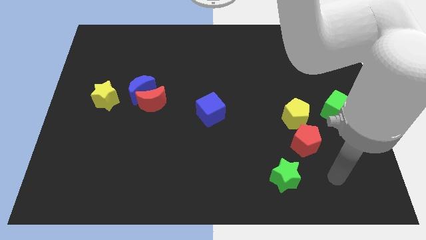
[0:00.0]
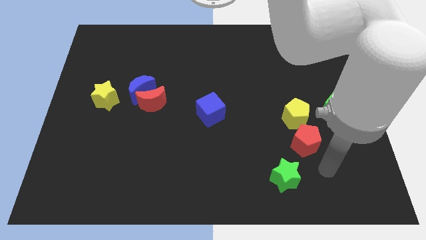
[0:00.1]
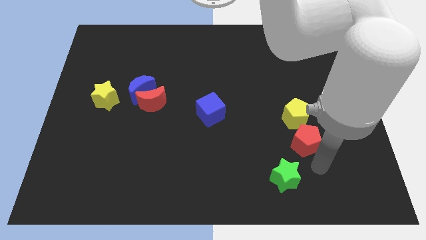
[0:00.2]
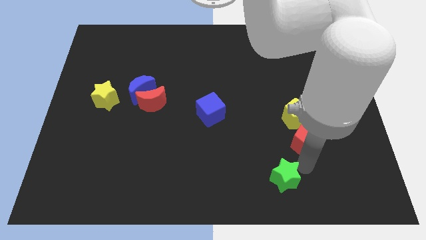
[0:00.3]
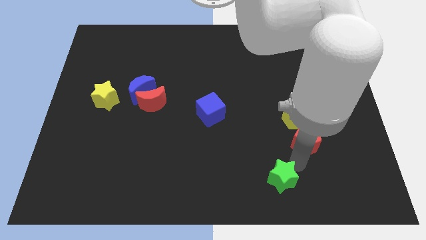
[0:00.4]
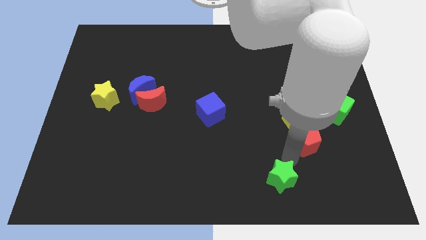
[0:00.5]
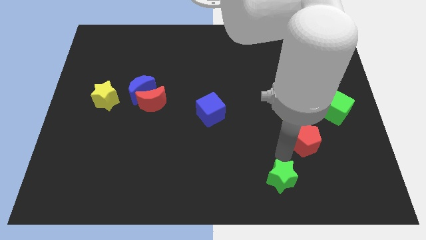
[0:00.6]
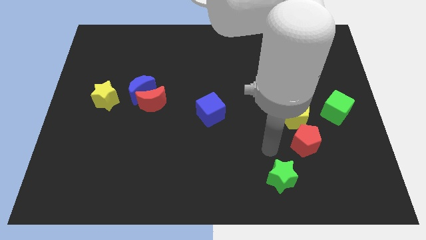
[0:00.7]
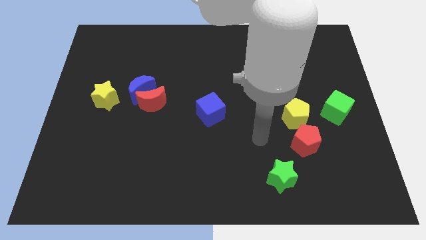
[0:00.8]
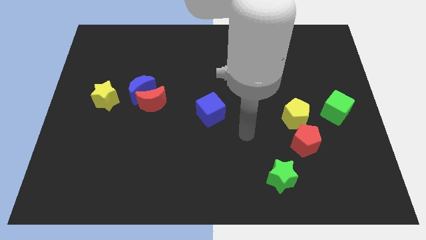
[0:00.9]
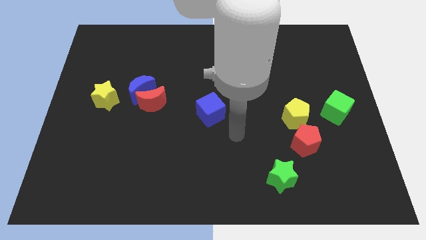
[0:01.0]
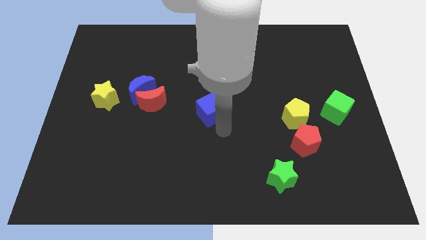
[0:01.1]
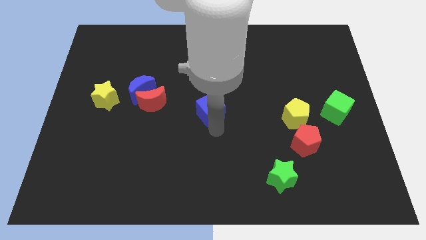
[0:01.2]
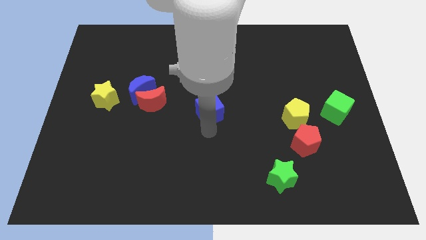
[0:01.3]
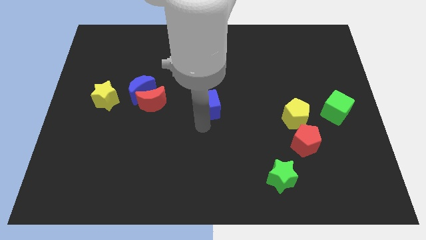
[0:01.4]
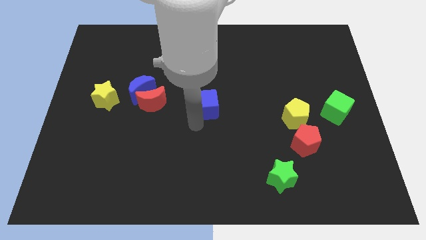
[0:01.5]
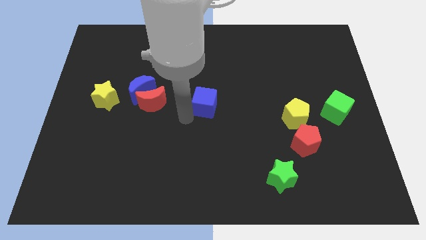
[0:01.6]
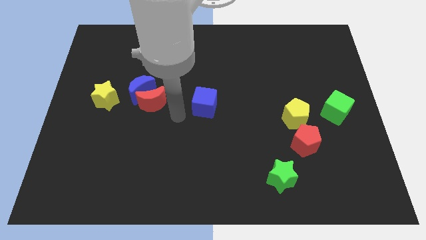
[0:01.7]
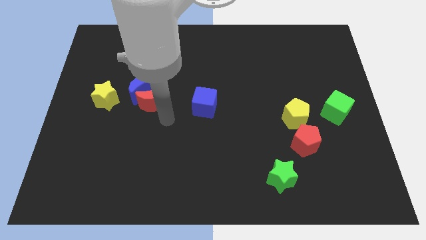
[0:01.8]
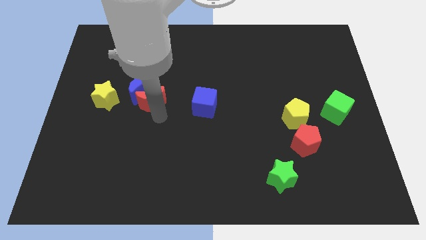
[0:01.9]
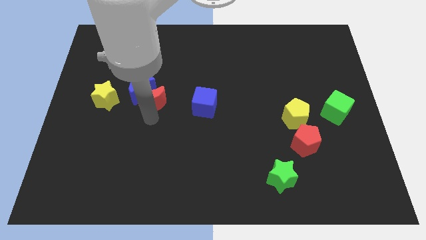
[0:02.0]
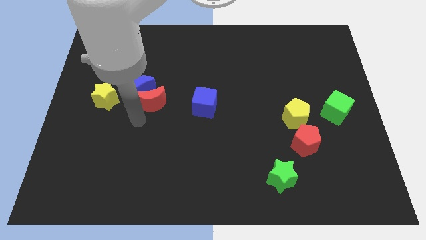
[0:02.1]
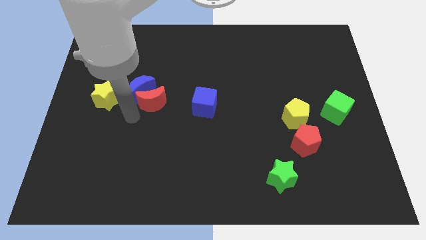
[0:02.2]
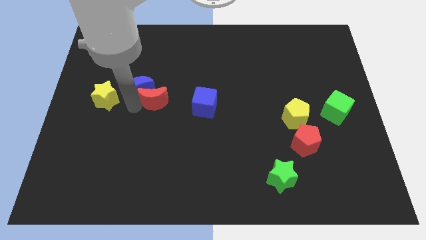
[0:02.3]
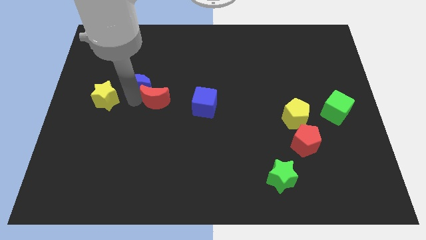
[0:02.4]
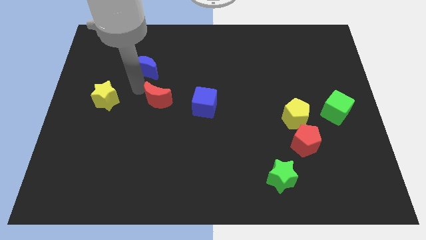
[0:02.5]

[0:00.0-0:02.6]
pull the red moon apart from the blue moon

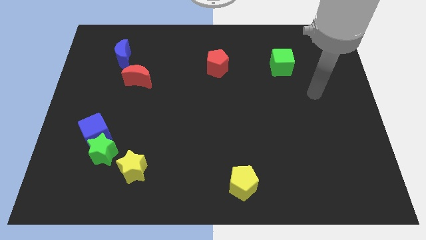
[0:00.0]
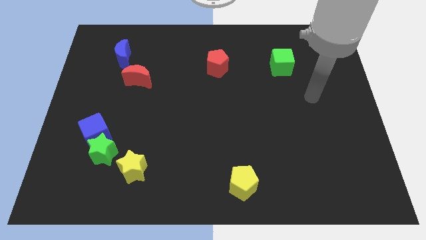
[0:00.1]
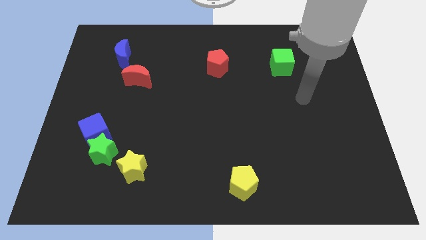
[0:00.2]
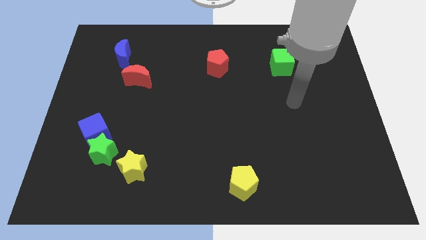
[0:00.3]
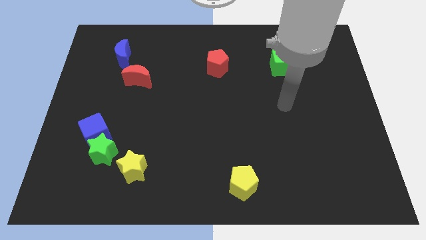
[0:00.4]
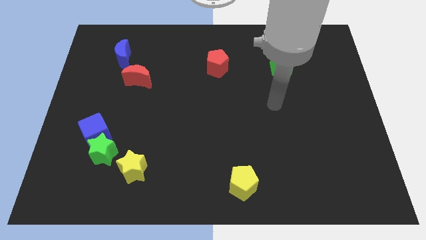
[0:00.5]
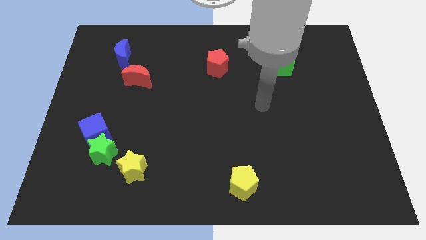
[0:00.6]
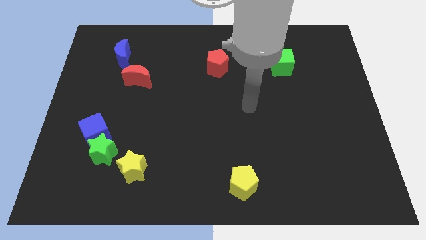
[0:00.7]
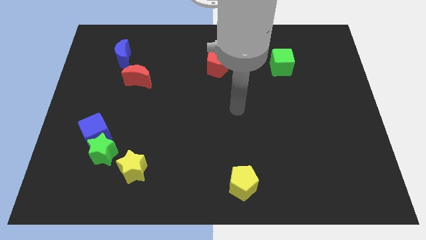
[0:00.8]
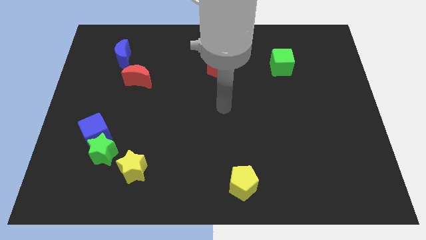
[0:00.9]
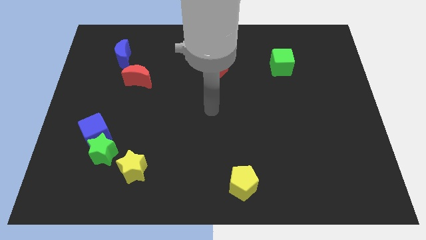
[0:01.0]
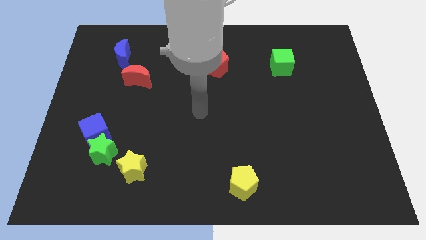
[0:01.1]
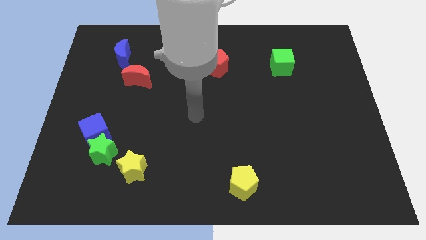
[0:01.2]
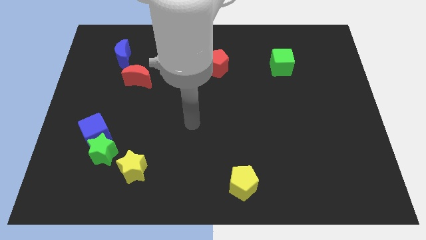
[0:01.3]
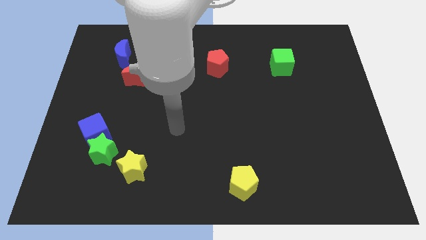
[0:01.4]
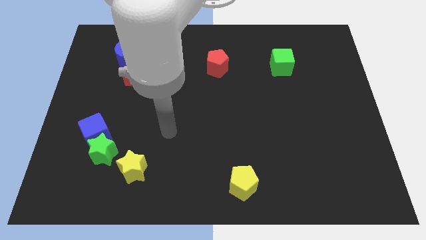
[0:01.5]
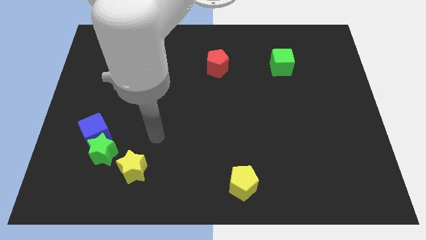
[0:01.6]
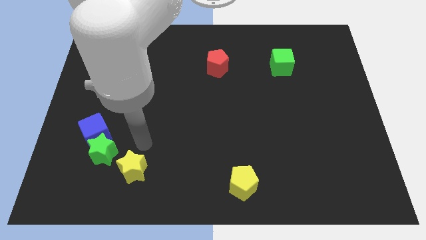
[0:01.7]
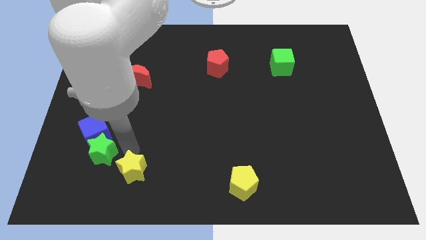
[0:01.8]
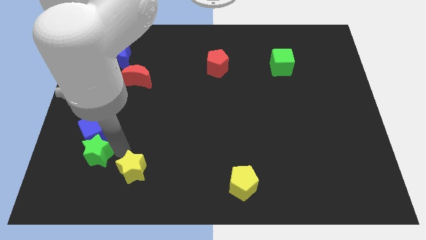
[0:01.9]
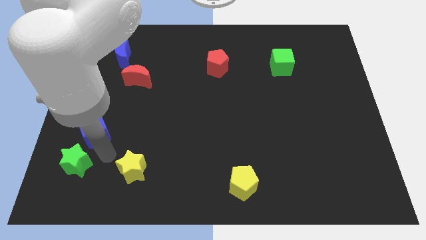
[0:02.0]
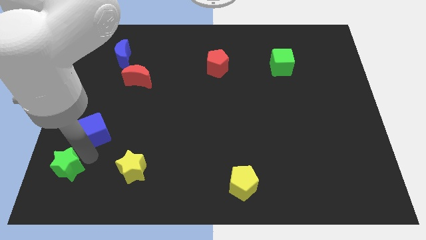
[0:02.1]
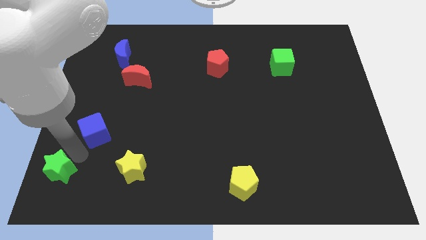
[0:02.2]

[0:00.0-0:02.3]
move the blue cube away from the green star

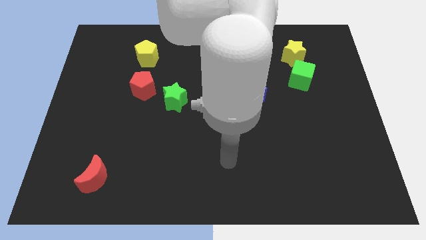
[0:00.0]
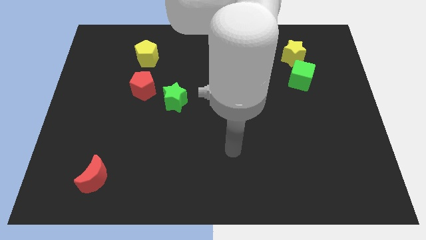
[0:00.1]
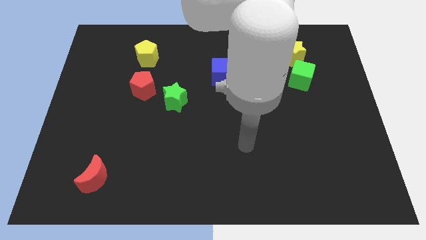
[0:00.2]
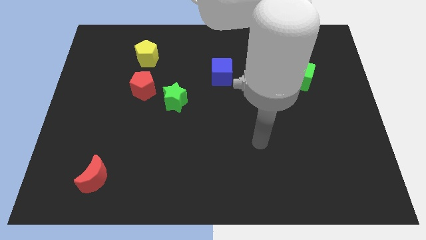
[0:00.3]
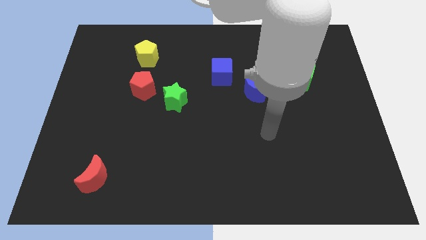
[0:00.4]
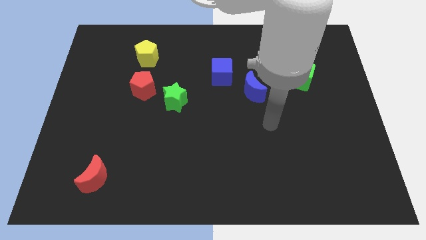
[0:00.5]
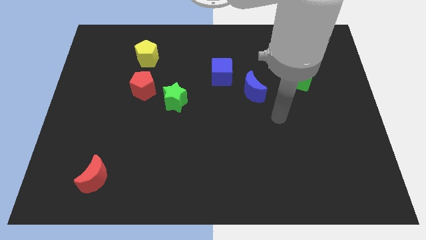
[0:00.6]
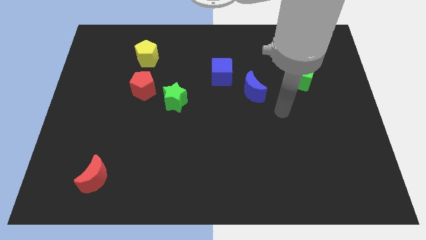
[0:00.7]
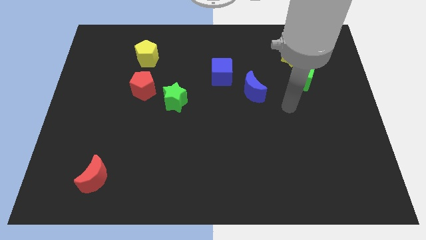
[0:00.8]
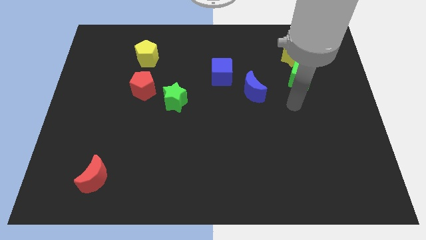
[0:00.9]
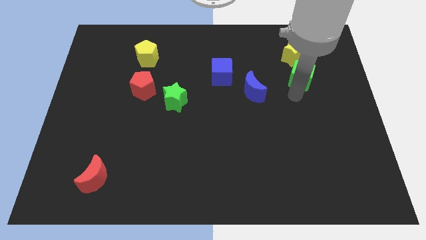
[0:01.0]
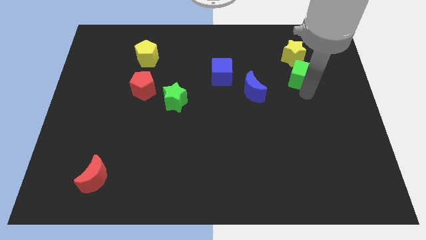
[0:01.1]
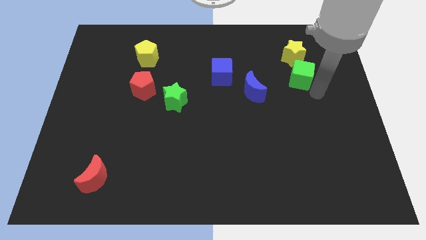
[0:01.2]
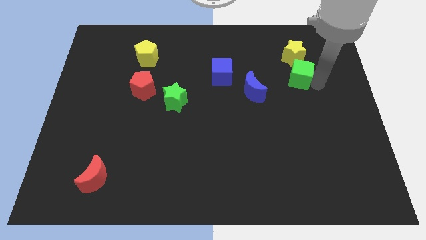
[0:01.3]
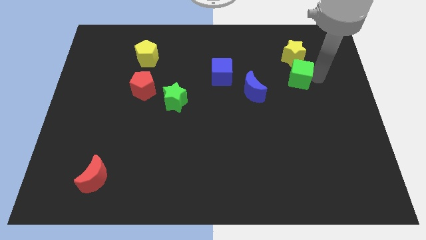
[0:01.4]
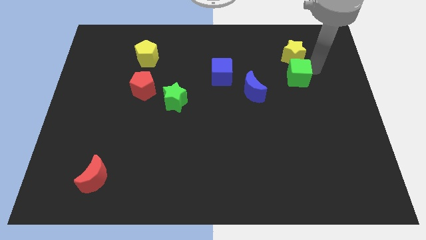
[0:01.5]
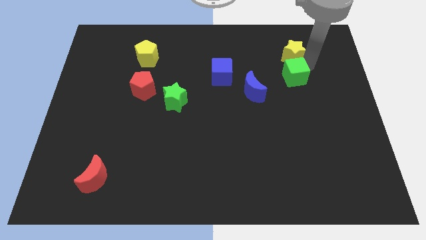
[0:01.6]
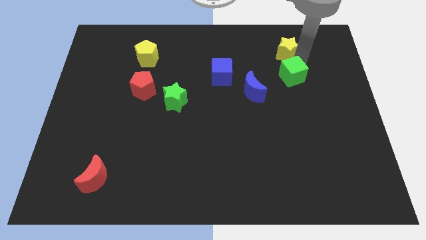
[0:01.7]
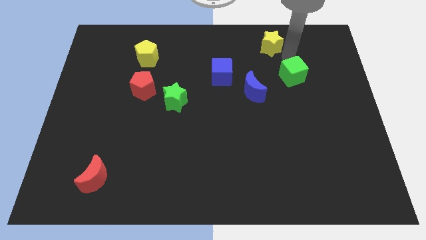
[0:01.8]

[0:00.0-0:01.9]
move the green cube away from the yellow star

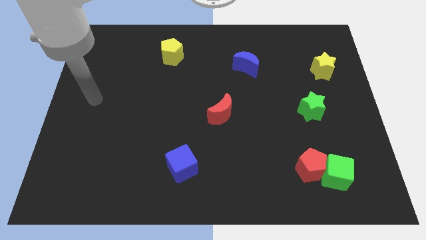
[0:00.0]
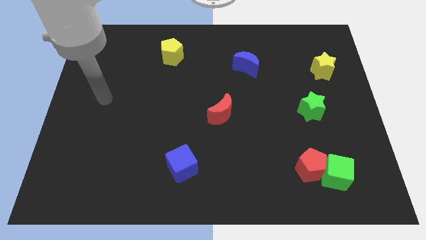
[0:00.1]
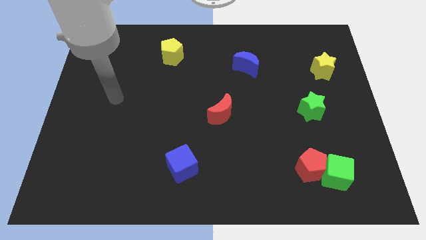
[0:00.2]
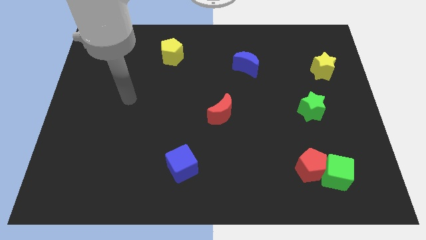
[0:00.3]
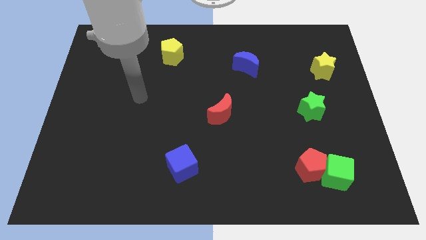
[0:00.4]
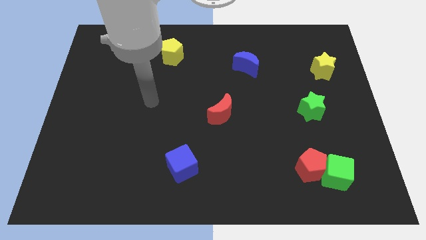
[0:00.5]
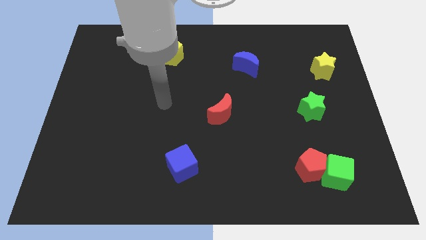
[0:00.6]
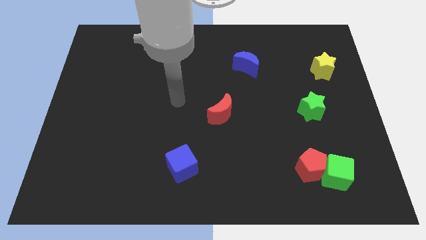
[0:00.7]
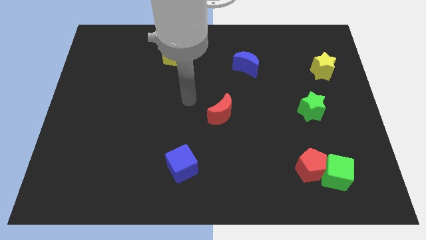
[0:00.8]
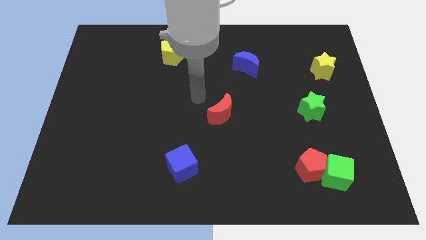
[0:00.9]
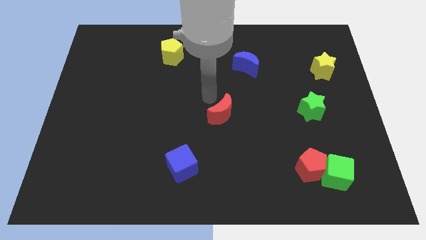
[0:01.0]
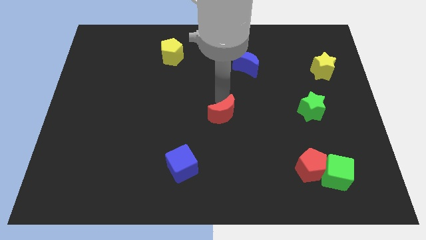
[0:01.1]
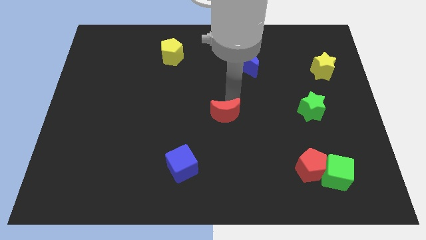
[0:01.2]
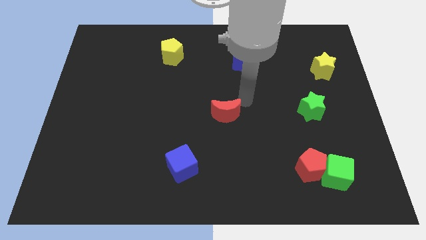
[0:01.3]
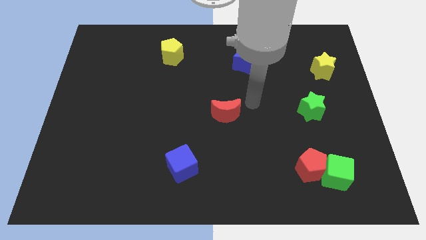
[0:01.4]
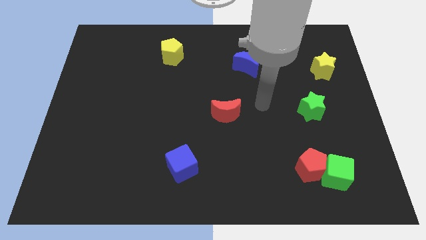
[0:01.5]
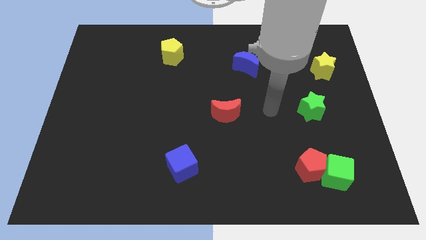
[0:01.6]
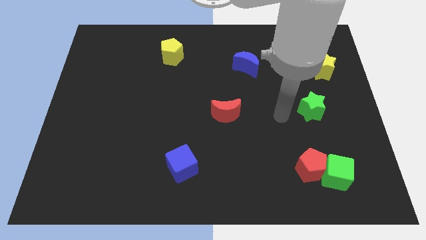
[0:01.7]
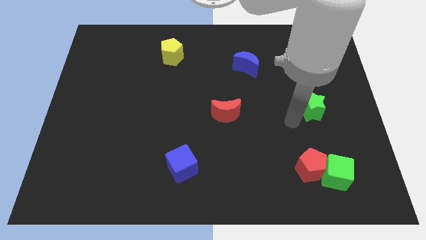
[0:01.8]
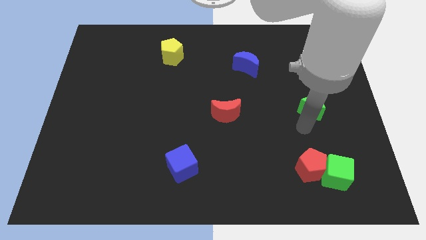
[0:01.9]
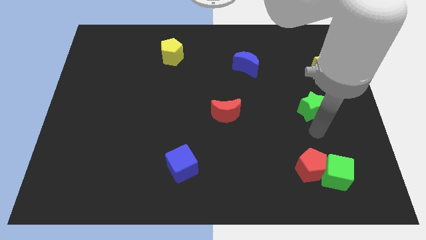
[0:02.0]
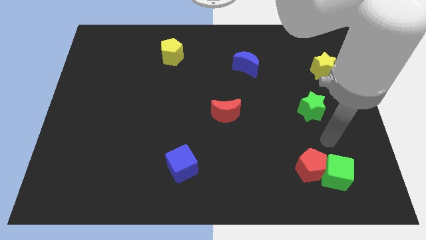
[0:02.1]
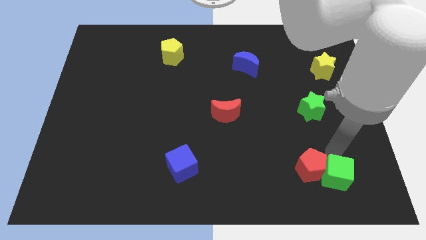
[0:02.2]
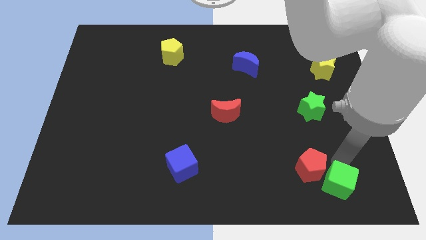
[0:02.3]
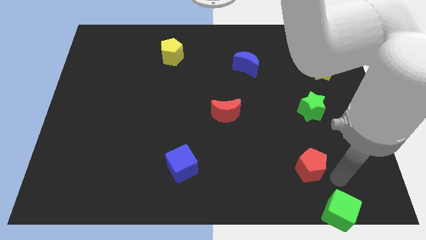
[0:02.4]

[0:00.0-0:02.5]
move the red pentagon away from the green cube

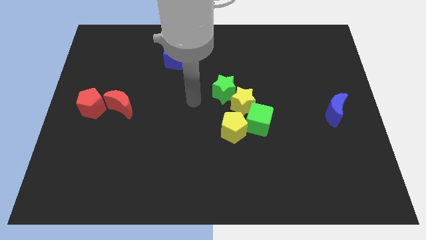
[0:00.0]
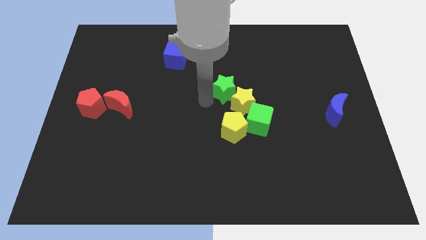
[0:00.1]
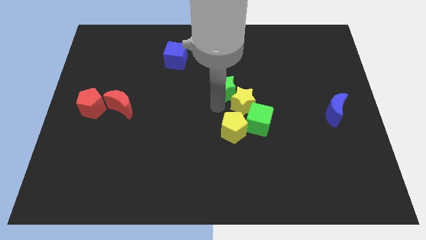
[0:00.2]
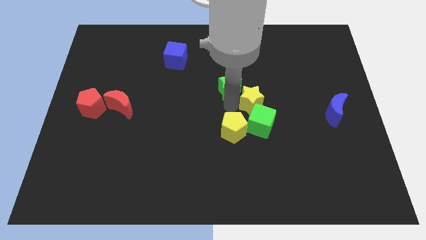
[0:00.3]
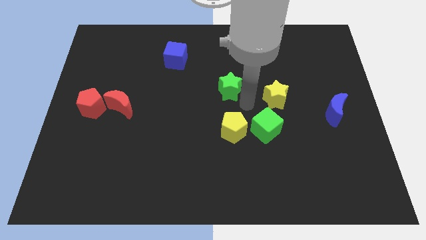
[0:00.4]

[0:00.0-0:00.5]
separate the green star from the yellow star
